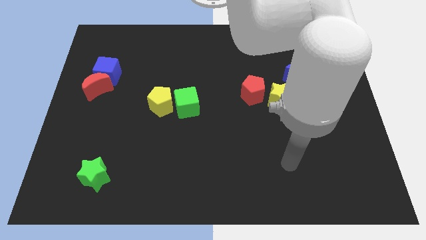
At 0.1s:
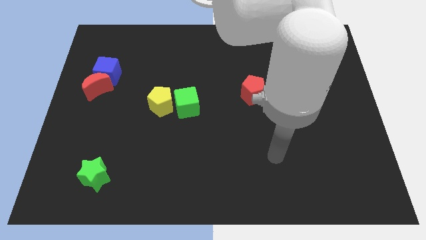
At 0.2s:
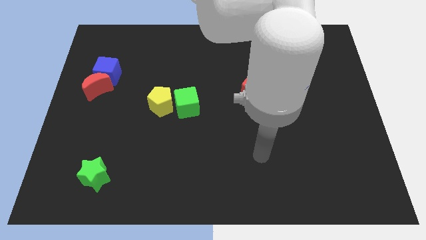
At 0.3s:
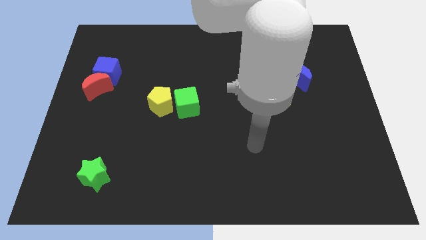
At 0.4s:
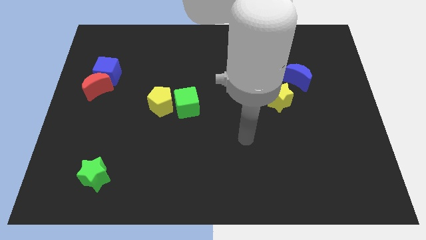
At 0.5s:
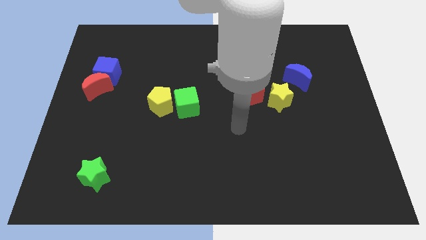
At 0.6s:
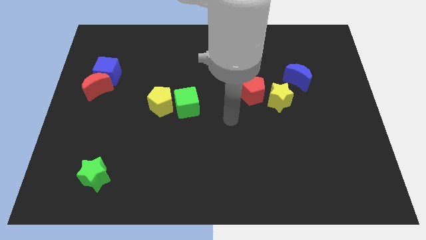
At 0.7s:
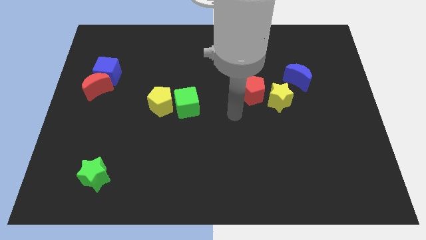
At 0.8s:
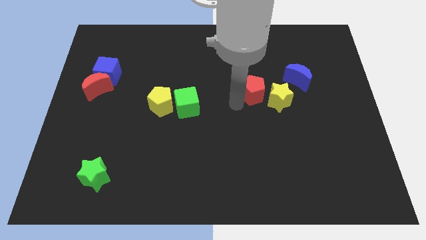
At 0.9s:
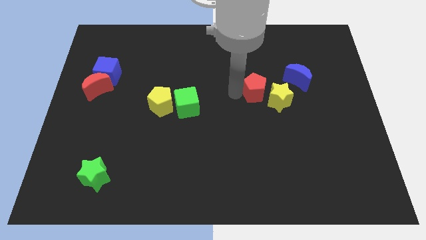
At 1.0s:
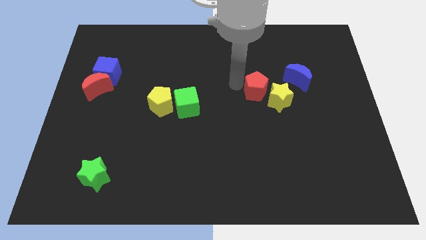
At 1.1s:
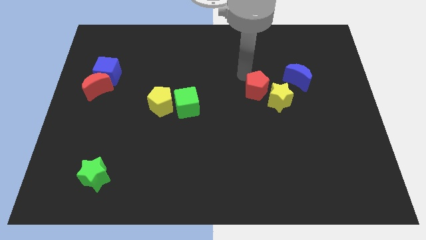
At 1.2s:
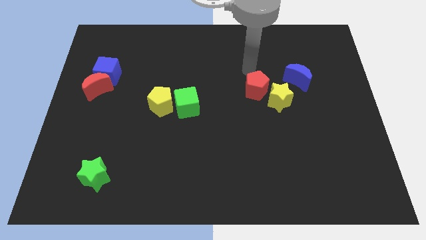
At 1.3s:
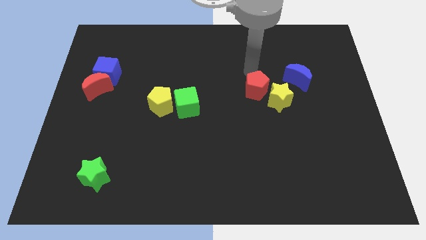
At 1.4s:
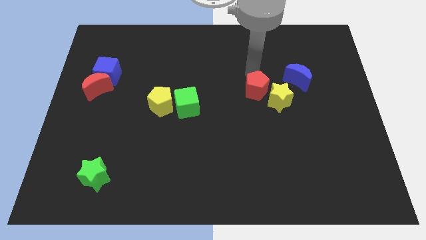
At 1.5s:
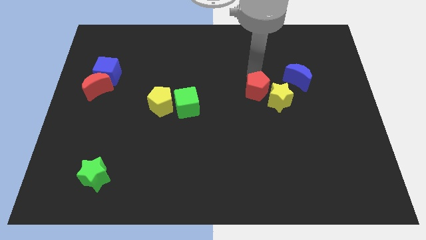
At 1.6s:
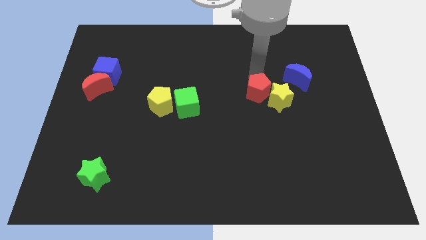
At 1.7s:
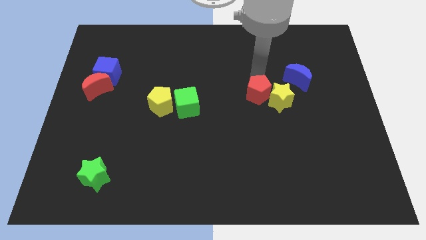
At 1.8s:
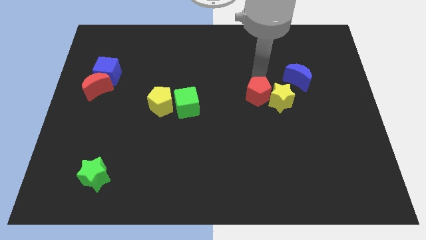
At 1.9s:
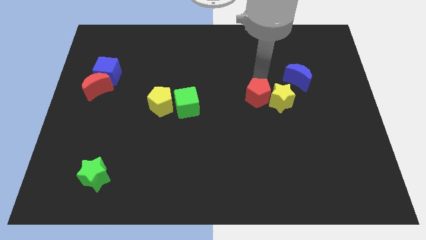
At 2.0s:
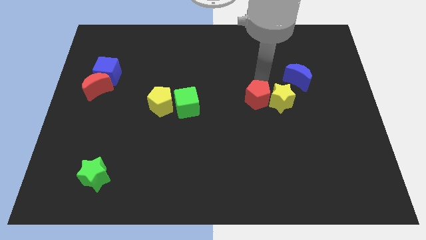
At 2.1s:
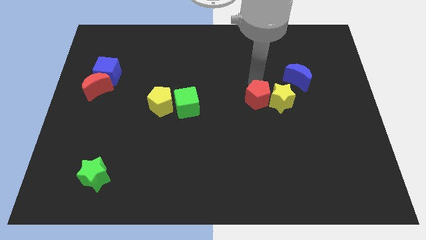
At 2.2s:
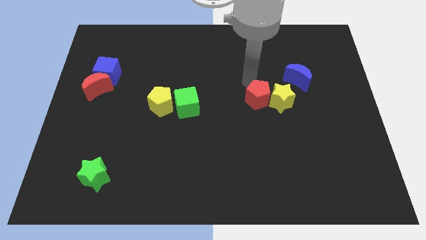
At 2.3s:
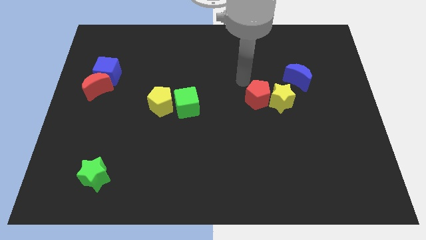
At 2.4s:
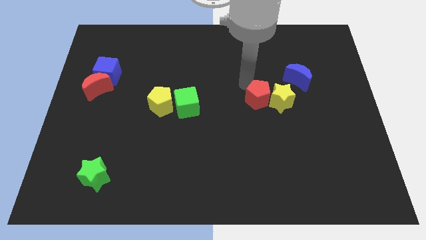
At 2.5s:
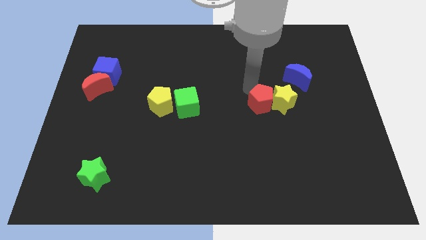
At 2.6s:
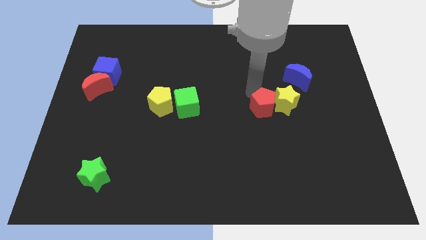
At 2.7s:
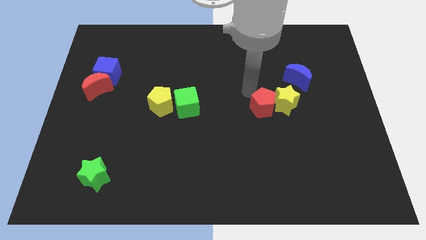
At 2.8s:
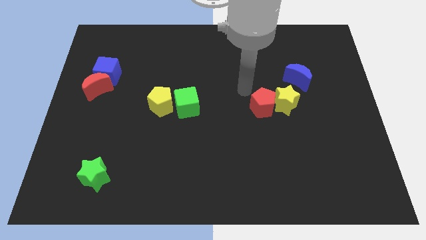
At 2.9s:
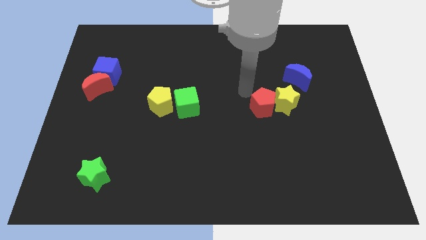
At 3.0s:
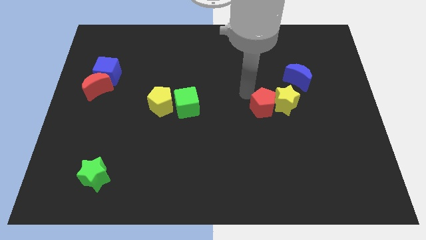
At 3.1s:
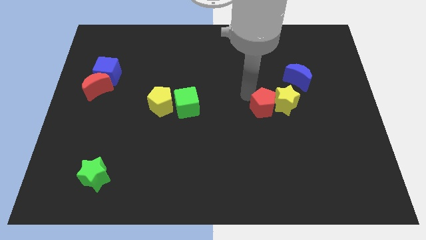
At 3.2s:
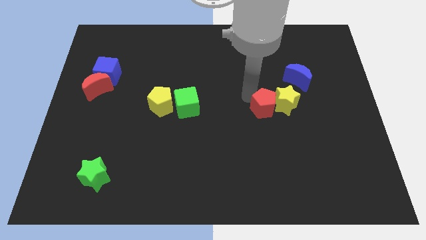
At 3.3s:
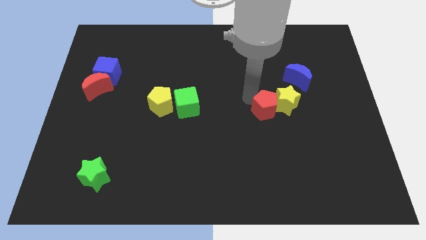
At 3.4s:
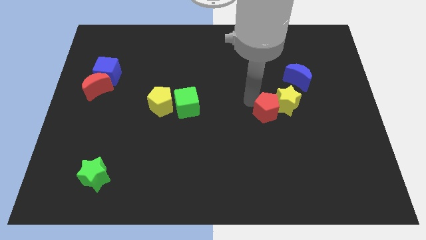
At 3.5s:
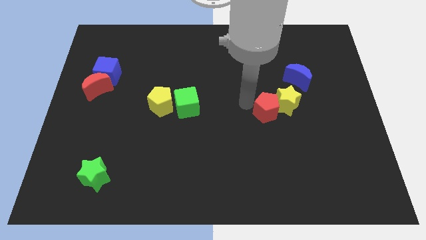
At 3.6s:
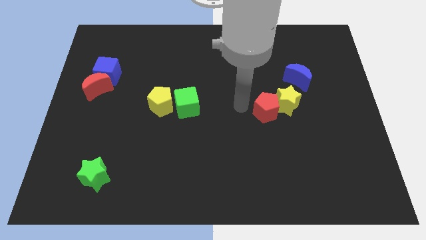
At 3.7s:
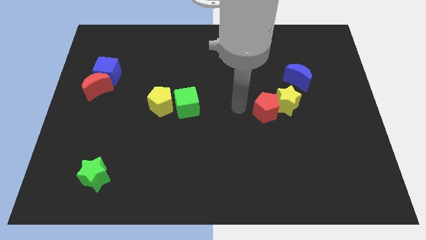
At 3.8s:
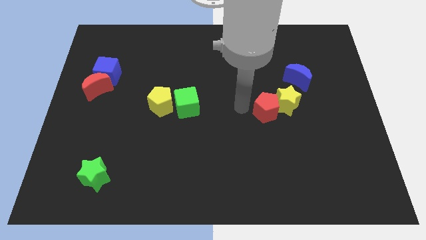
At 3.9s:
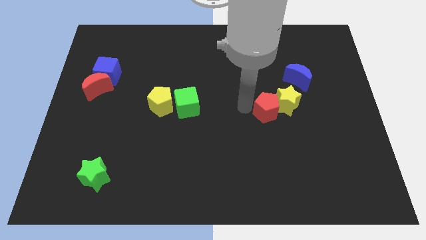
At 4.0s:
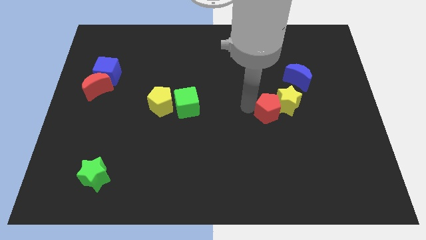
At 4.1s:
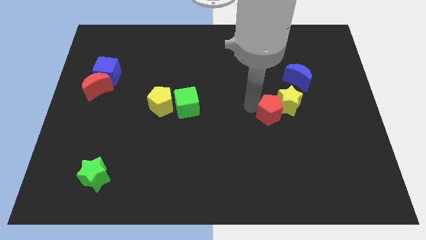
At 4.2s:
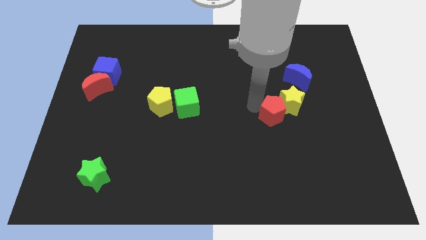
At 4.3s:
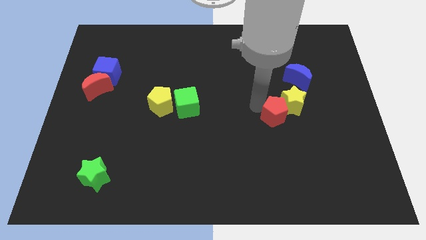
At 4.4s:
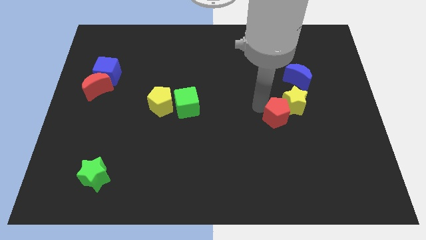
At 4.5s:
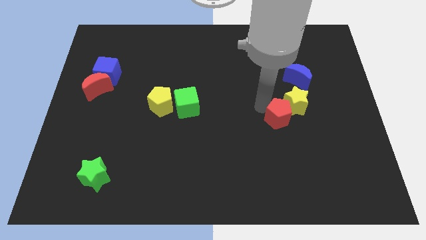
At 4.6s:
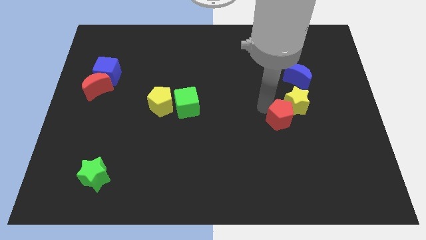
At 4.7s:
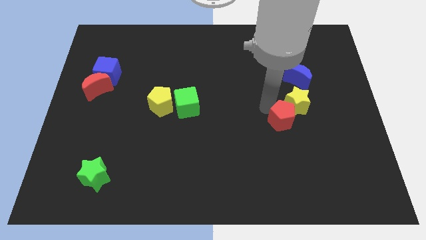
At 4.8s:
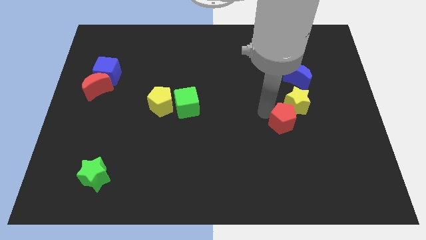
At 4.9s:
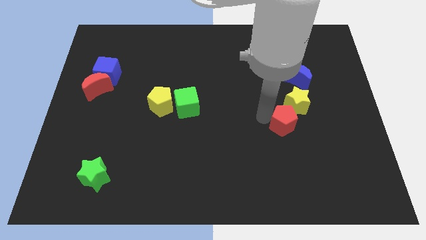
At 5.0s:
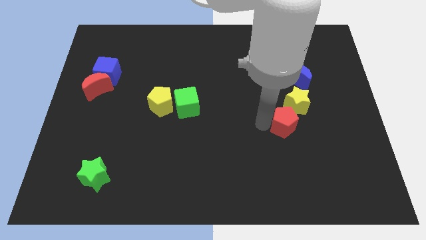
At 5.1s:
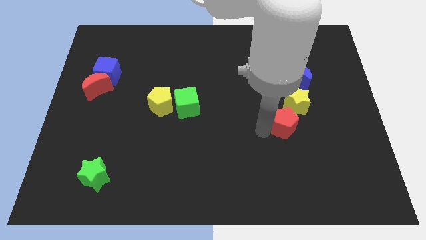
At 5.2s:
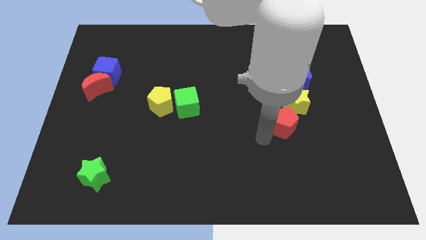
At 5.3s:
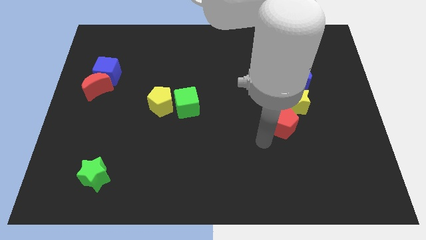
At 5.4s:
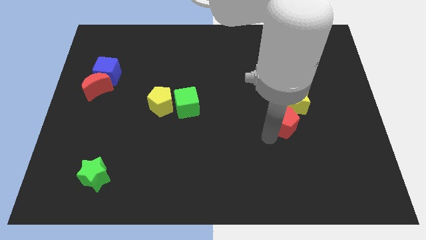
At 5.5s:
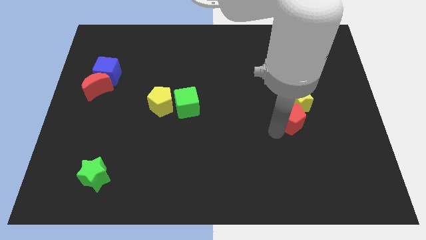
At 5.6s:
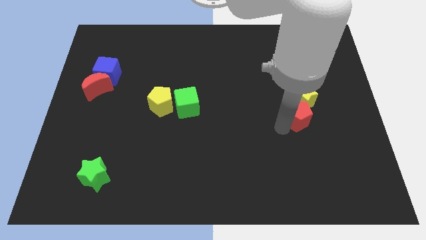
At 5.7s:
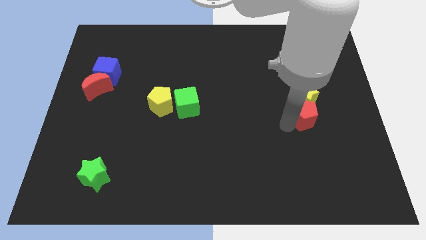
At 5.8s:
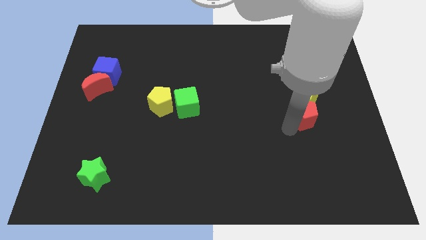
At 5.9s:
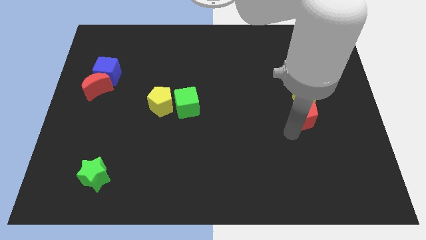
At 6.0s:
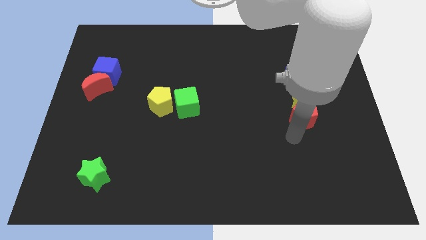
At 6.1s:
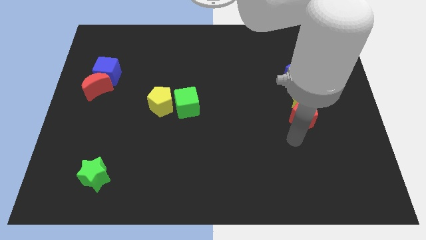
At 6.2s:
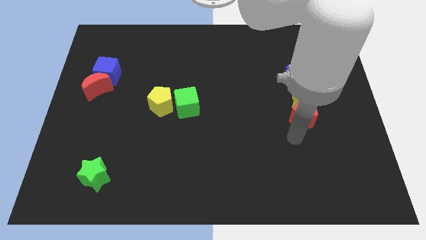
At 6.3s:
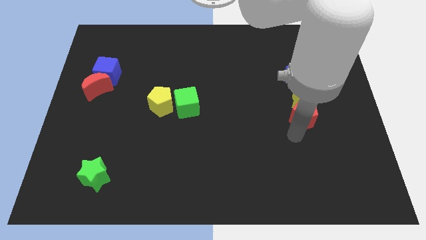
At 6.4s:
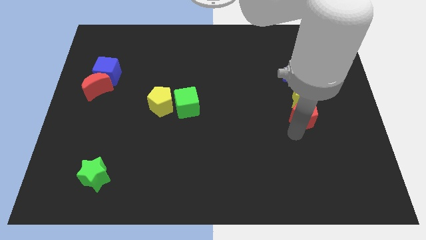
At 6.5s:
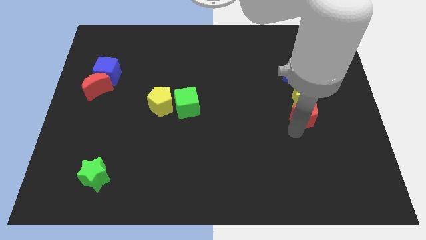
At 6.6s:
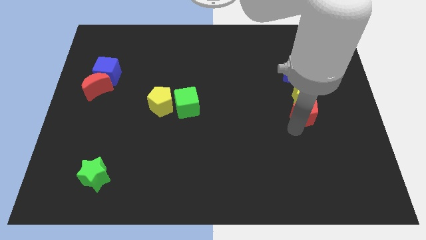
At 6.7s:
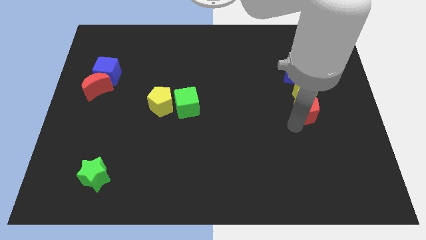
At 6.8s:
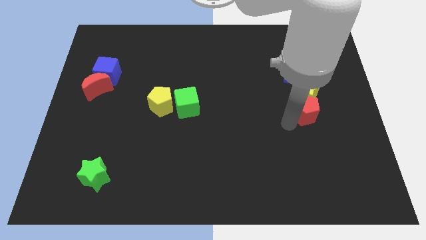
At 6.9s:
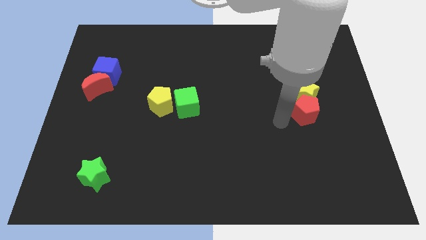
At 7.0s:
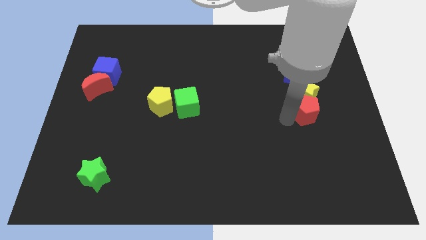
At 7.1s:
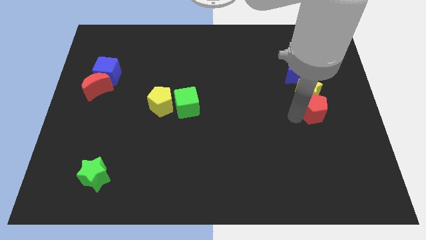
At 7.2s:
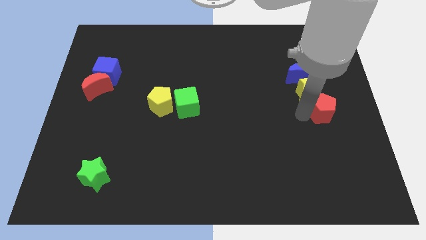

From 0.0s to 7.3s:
put the red pentagon to the center right
